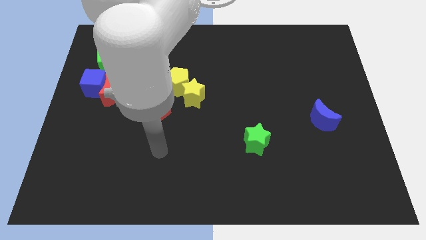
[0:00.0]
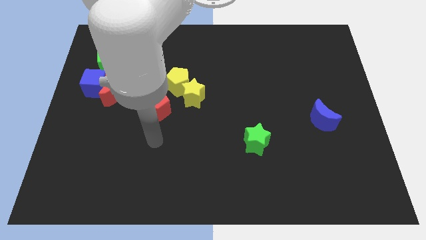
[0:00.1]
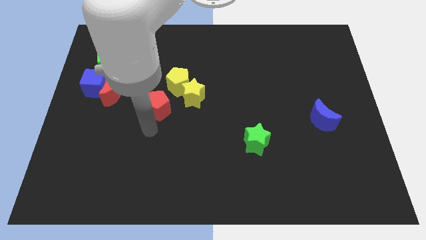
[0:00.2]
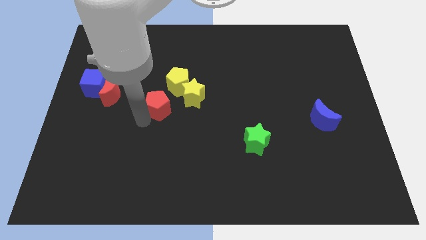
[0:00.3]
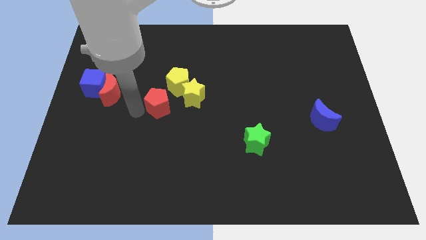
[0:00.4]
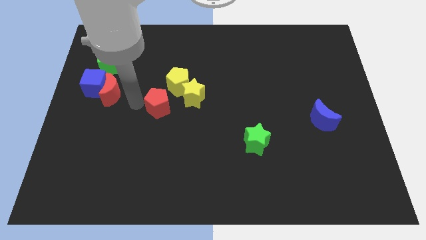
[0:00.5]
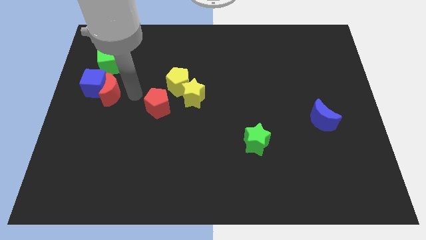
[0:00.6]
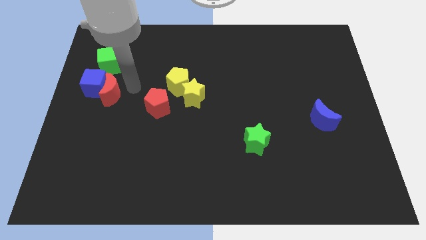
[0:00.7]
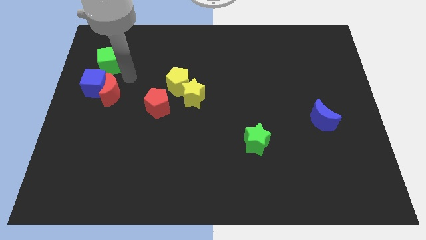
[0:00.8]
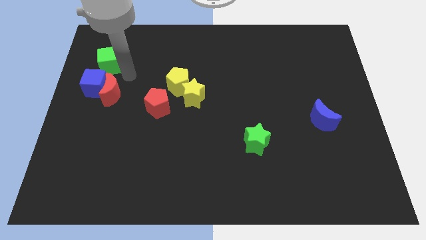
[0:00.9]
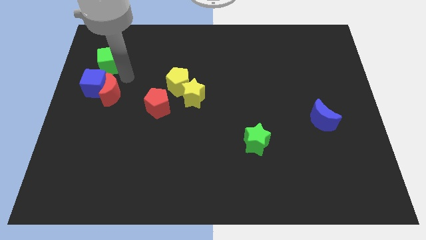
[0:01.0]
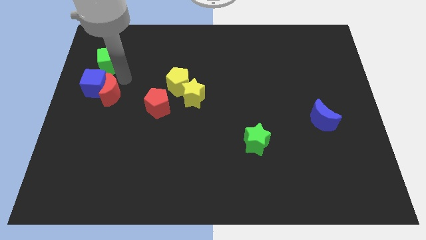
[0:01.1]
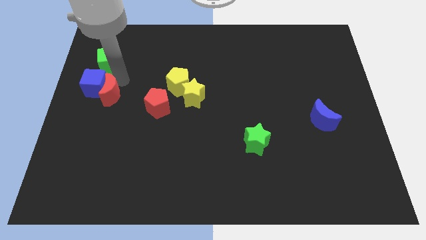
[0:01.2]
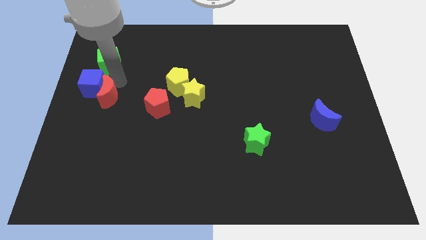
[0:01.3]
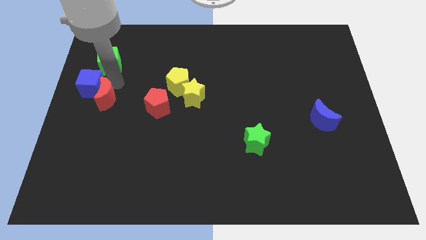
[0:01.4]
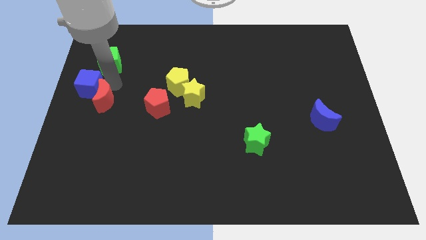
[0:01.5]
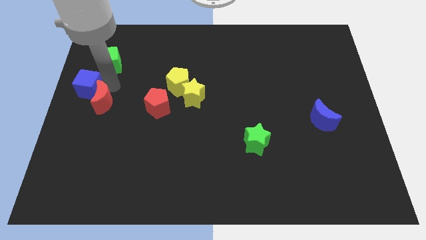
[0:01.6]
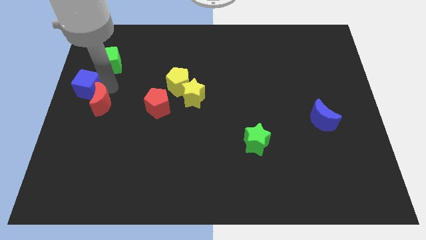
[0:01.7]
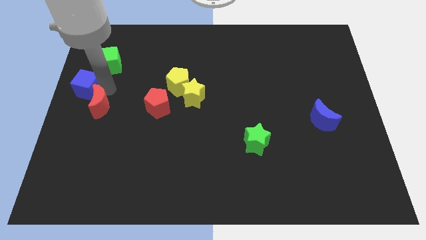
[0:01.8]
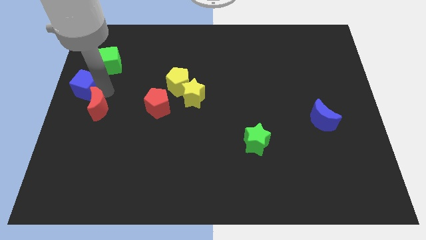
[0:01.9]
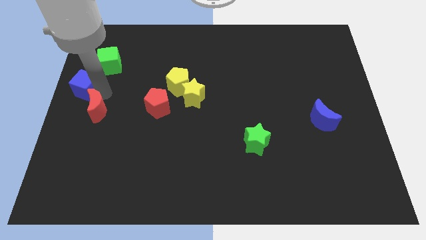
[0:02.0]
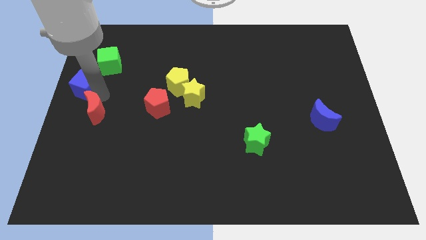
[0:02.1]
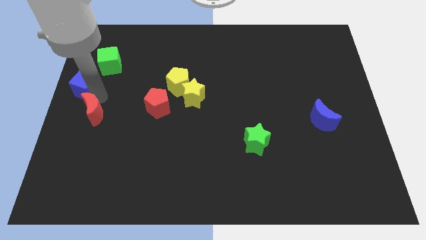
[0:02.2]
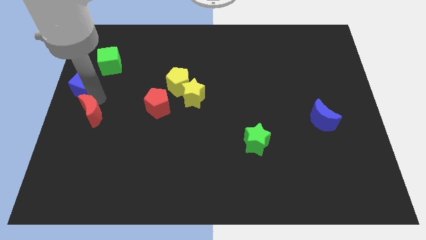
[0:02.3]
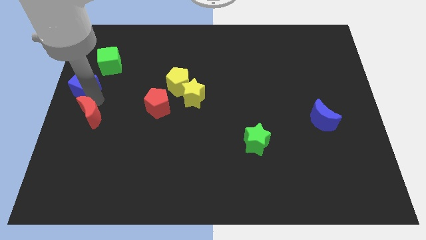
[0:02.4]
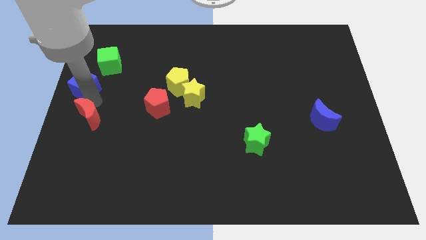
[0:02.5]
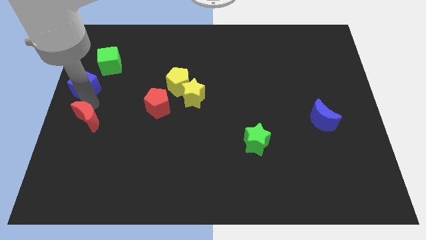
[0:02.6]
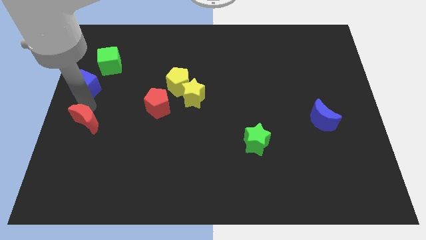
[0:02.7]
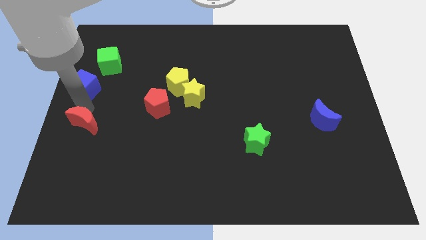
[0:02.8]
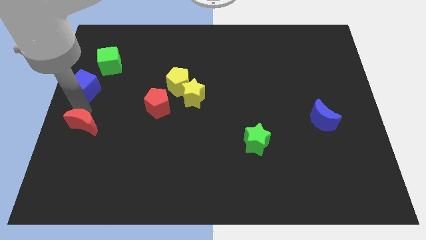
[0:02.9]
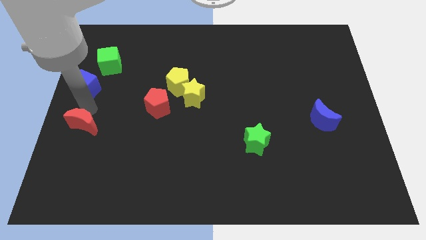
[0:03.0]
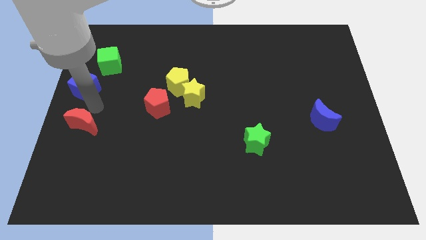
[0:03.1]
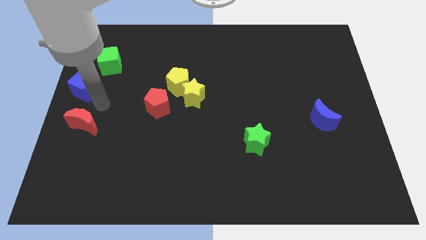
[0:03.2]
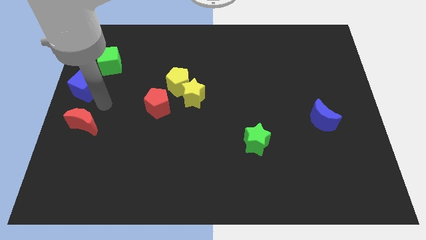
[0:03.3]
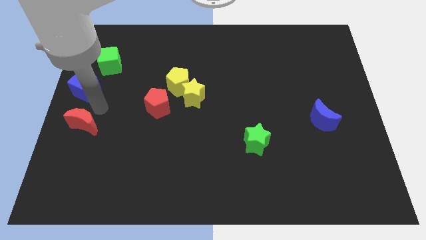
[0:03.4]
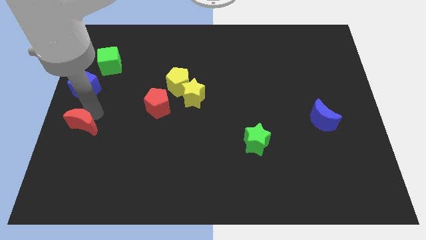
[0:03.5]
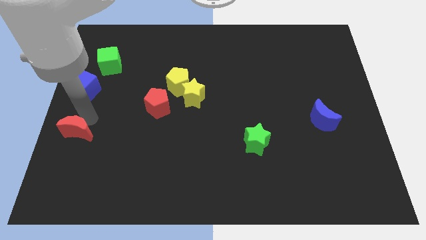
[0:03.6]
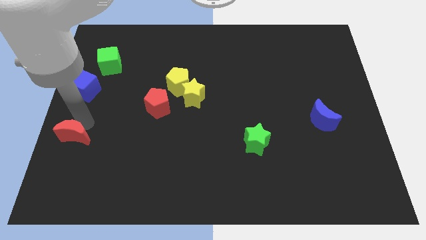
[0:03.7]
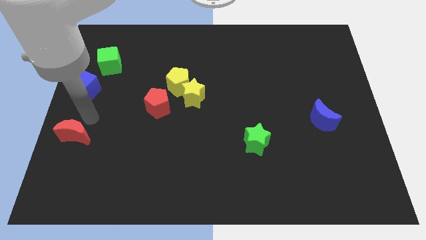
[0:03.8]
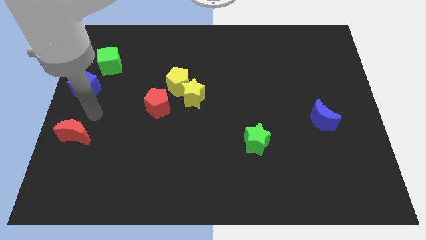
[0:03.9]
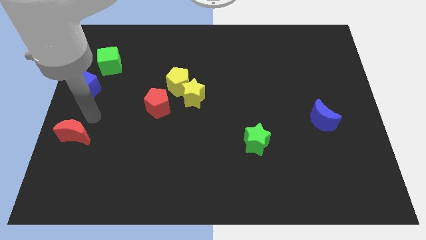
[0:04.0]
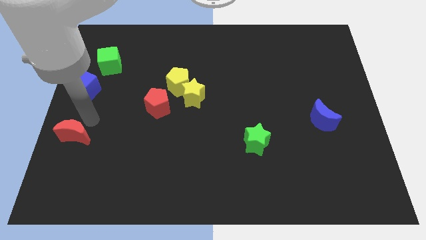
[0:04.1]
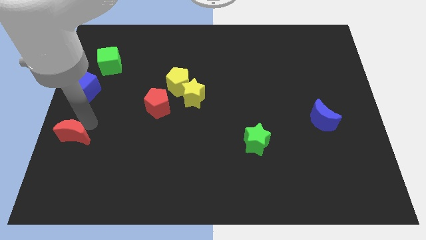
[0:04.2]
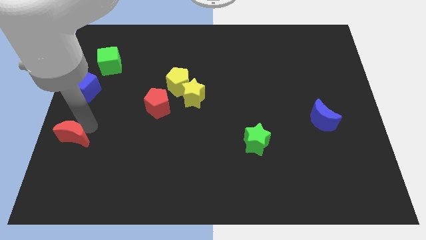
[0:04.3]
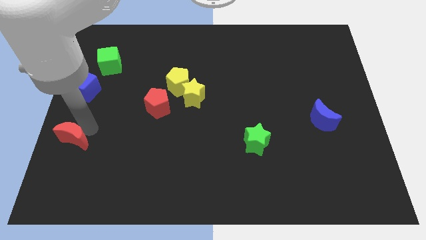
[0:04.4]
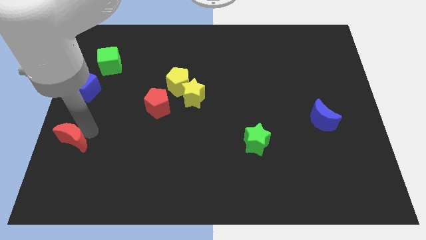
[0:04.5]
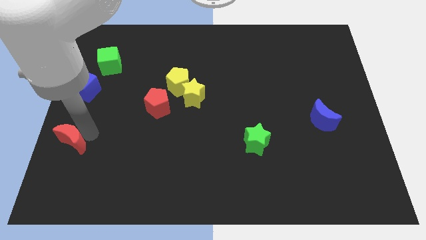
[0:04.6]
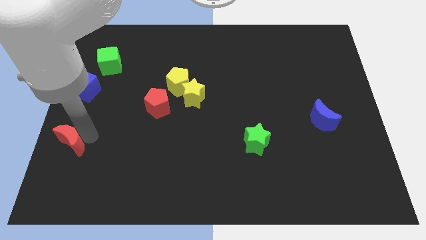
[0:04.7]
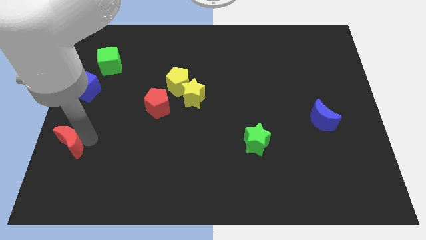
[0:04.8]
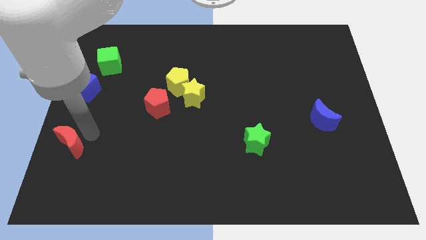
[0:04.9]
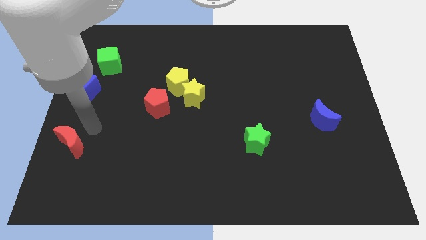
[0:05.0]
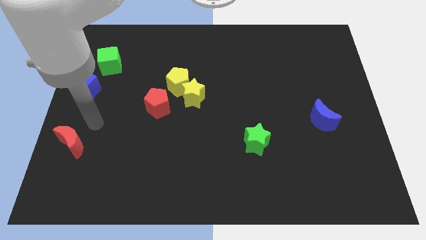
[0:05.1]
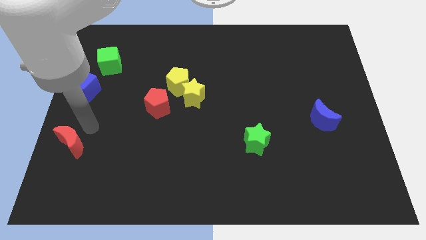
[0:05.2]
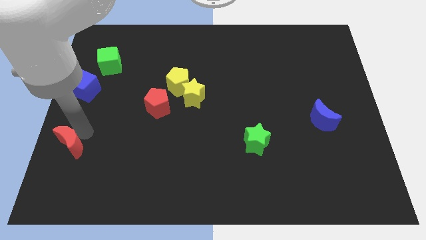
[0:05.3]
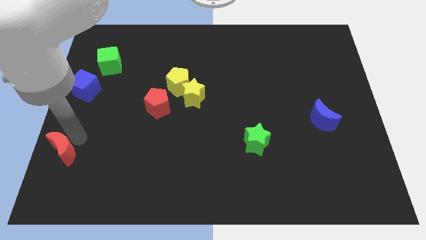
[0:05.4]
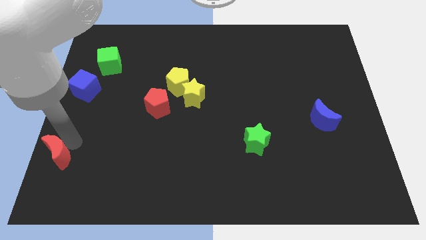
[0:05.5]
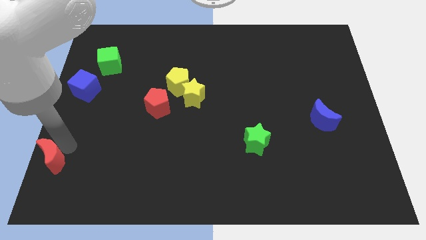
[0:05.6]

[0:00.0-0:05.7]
slide the red moon to the bottom left

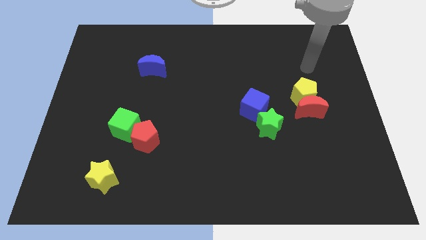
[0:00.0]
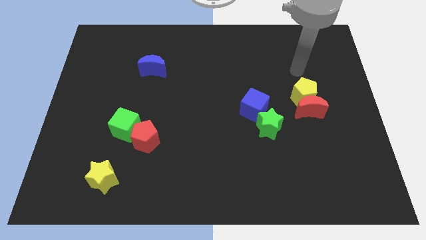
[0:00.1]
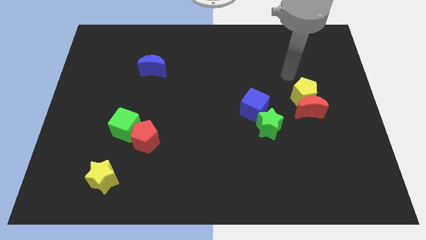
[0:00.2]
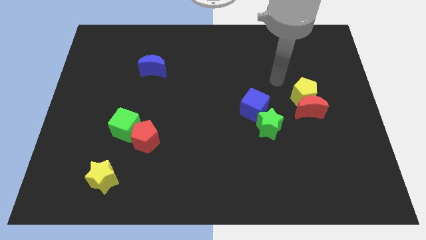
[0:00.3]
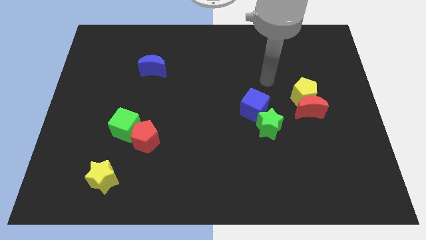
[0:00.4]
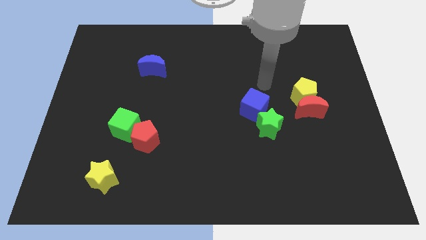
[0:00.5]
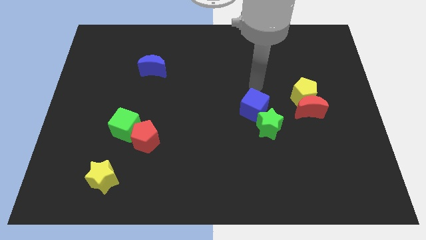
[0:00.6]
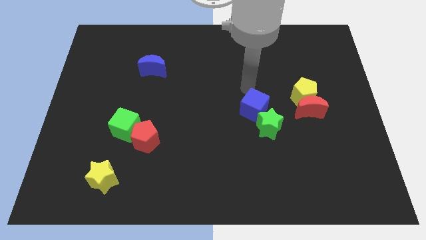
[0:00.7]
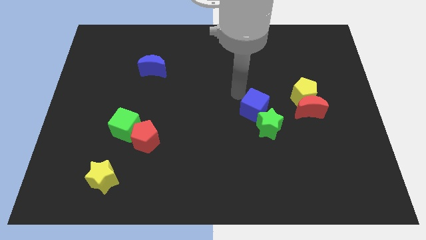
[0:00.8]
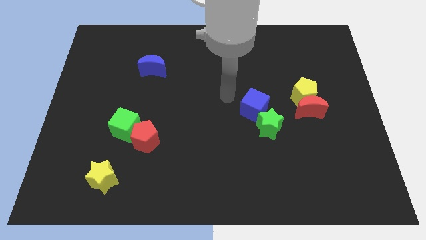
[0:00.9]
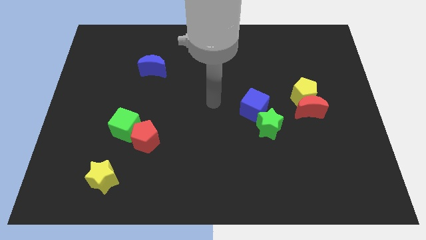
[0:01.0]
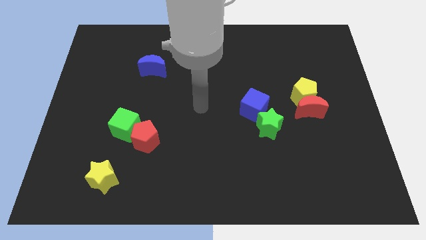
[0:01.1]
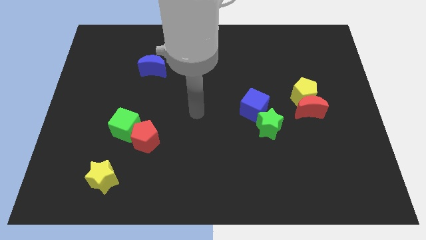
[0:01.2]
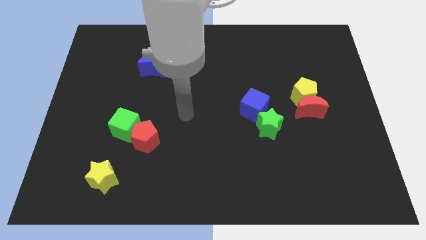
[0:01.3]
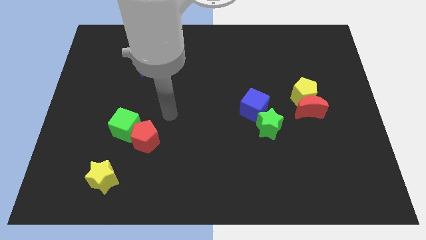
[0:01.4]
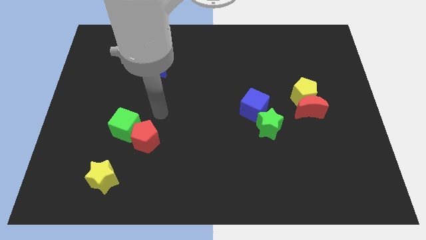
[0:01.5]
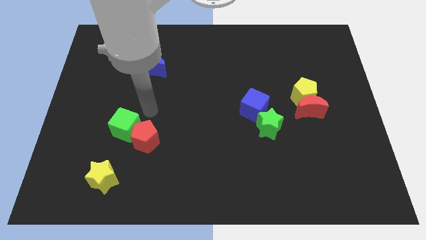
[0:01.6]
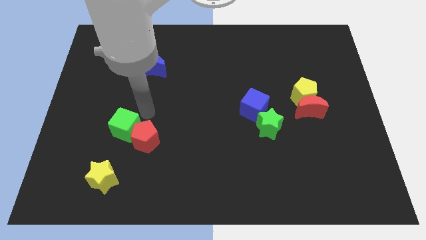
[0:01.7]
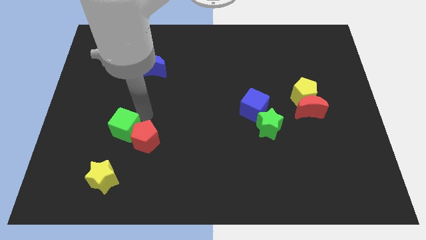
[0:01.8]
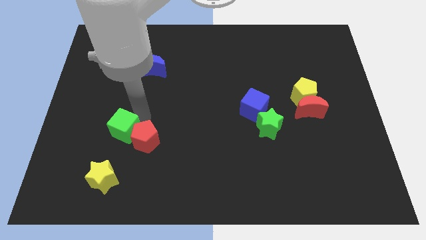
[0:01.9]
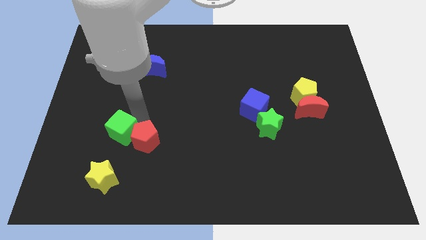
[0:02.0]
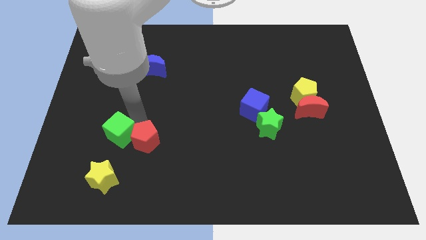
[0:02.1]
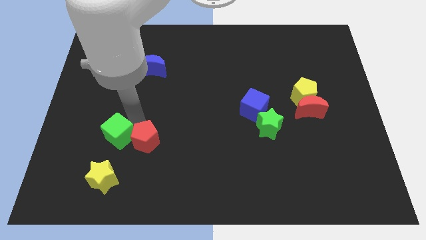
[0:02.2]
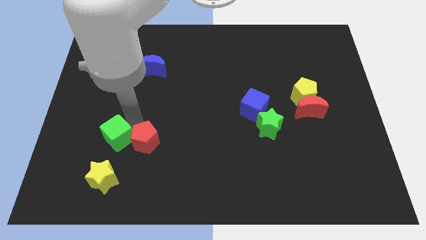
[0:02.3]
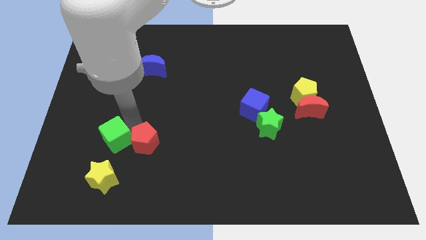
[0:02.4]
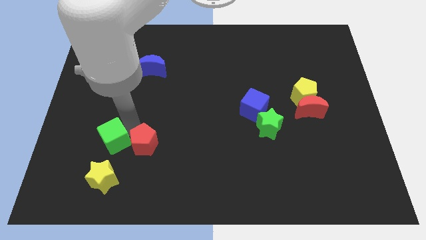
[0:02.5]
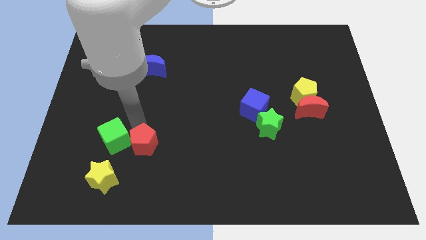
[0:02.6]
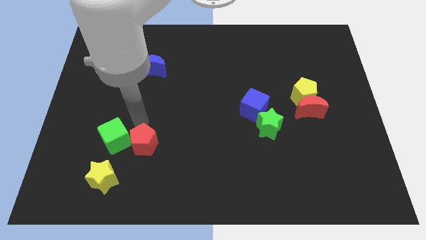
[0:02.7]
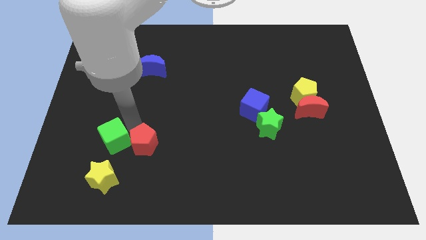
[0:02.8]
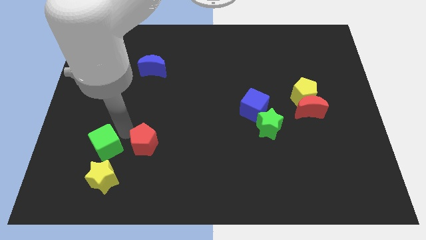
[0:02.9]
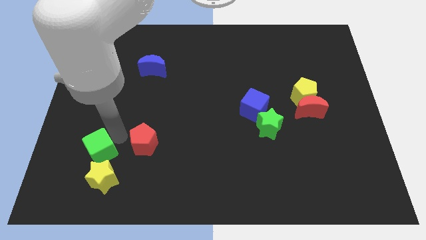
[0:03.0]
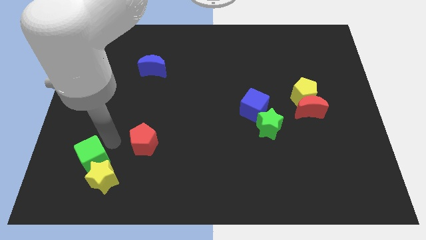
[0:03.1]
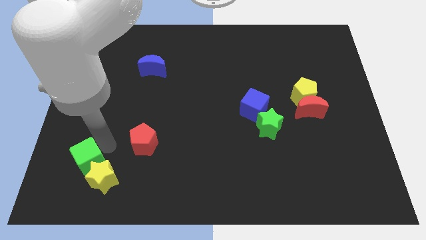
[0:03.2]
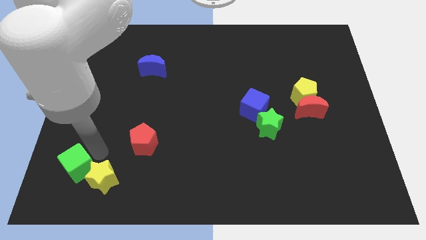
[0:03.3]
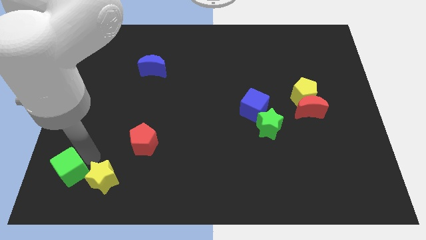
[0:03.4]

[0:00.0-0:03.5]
move the green cube to the bottom left
